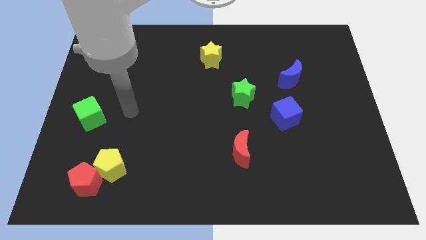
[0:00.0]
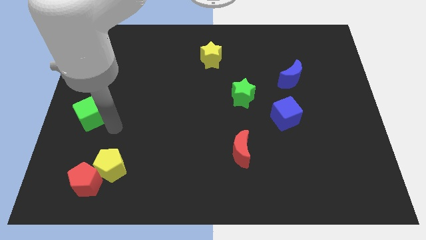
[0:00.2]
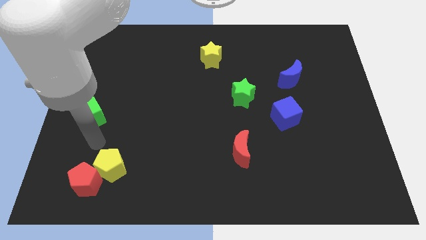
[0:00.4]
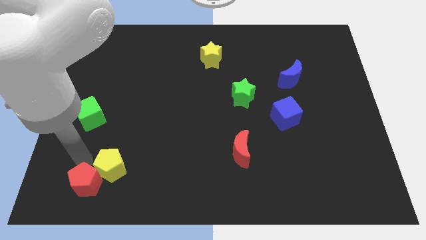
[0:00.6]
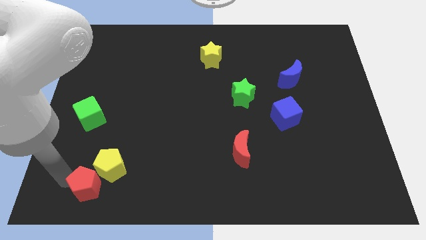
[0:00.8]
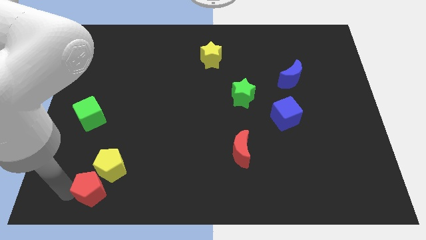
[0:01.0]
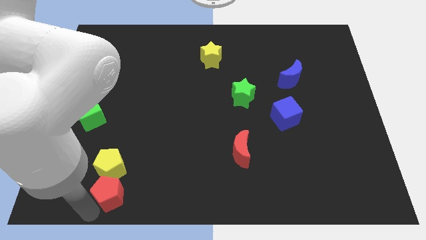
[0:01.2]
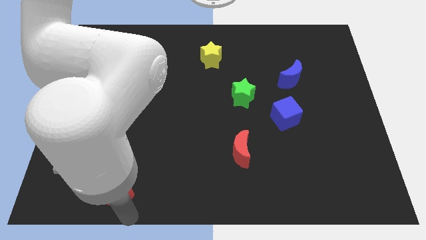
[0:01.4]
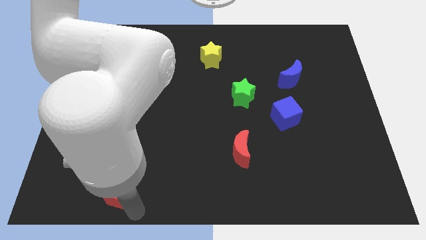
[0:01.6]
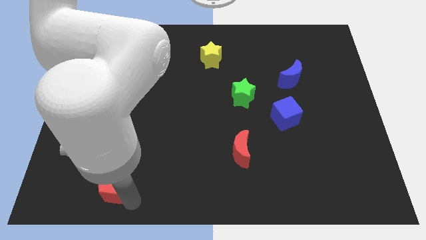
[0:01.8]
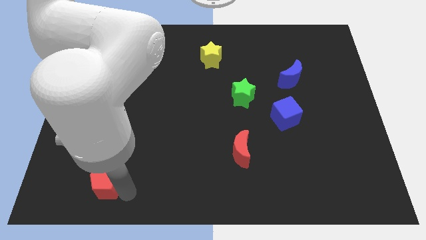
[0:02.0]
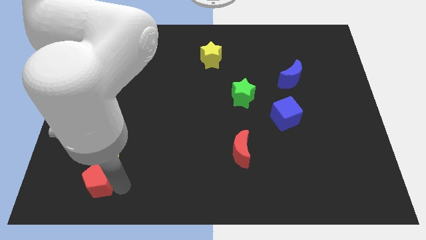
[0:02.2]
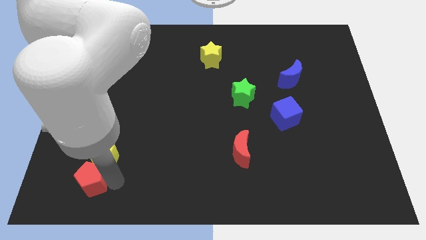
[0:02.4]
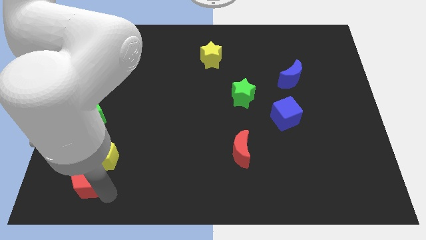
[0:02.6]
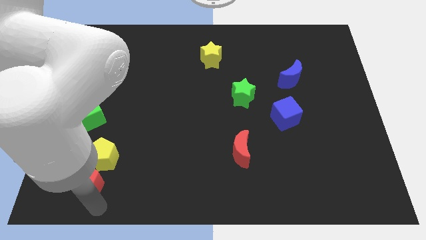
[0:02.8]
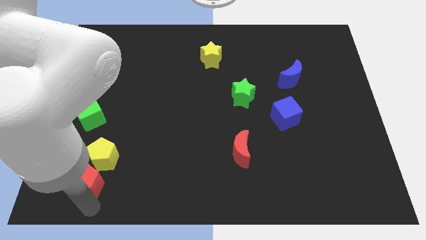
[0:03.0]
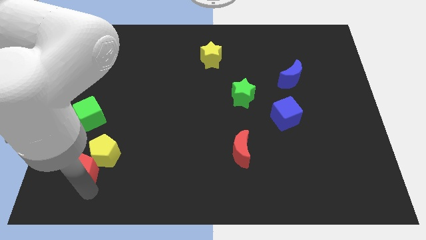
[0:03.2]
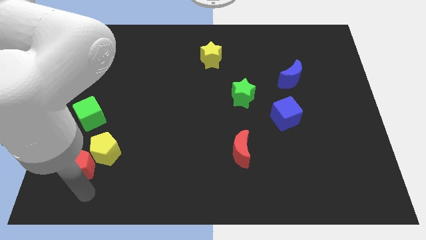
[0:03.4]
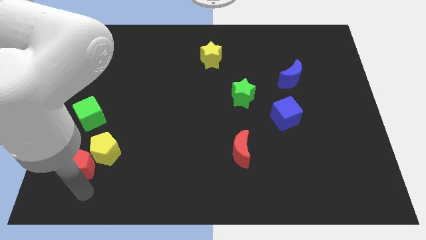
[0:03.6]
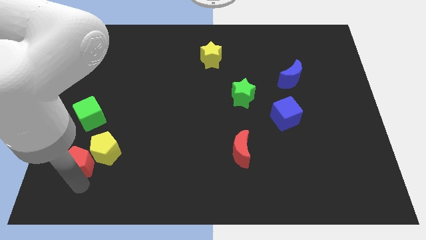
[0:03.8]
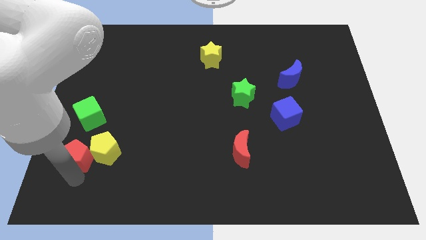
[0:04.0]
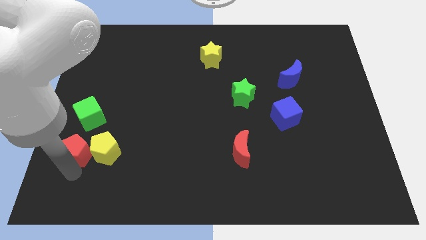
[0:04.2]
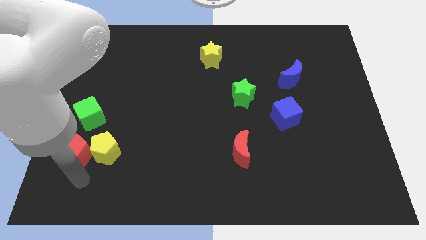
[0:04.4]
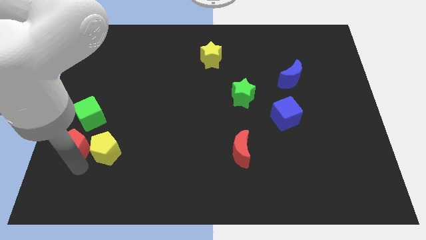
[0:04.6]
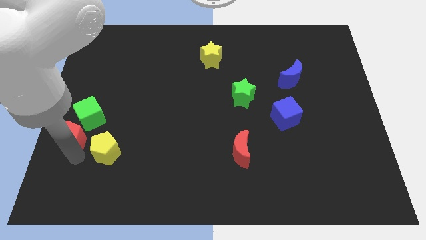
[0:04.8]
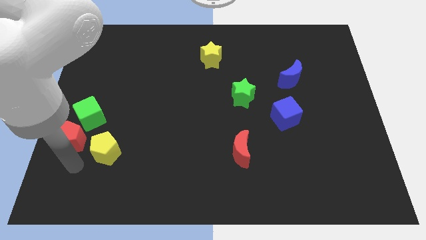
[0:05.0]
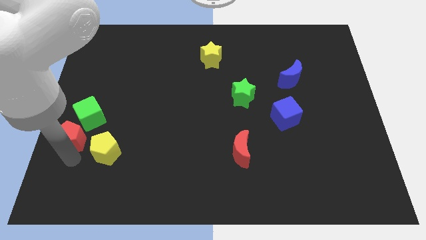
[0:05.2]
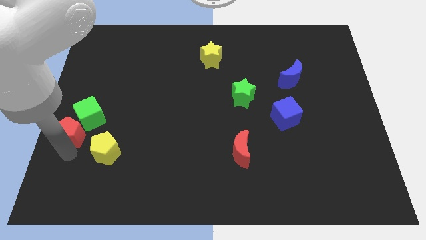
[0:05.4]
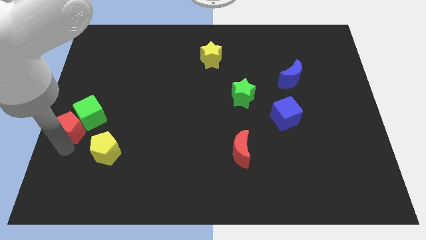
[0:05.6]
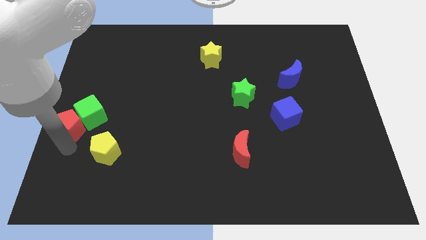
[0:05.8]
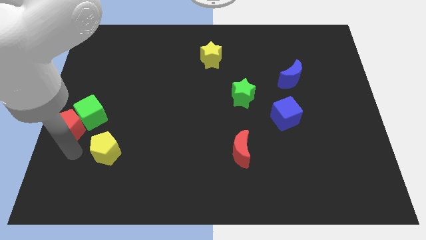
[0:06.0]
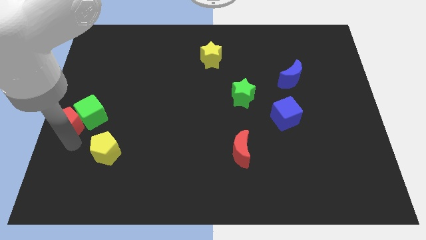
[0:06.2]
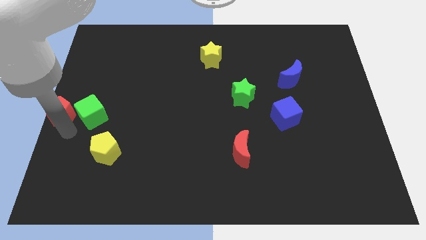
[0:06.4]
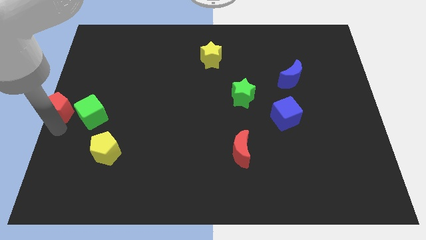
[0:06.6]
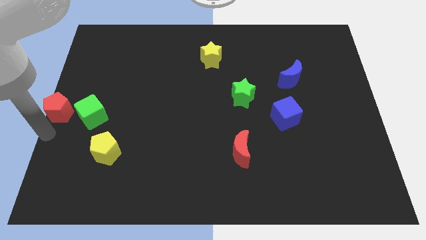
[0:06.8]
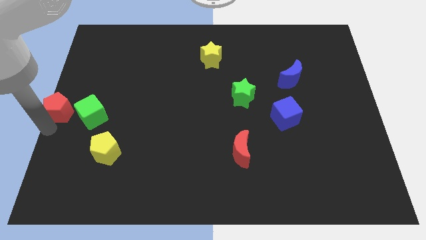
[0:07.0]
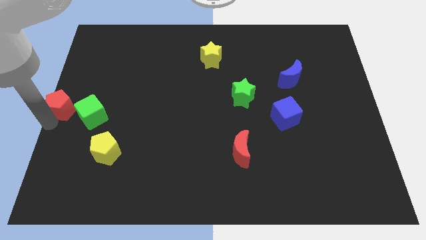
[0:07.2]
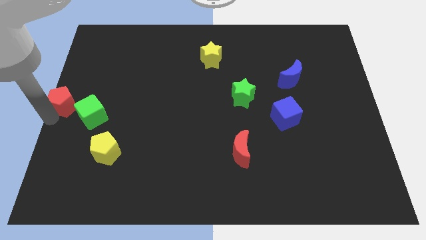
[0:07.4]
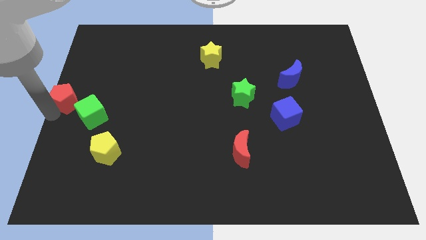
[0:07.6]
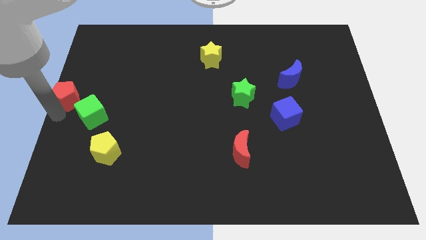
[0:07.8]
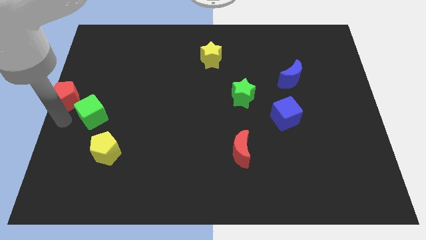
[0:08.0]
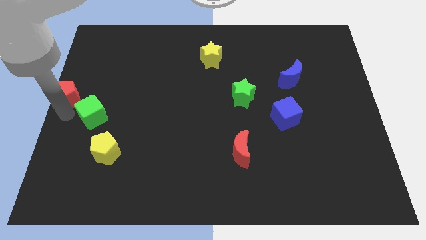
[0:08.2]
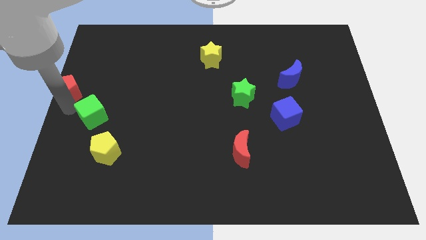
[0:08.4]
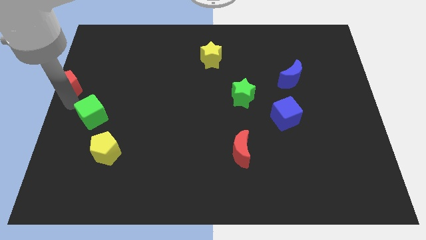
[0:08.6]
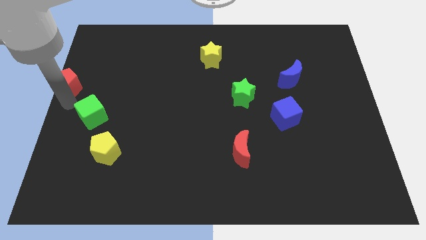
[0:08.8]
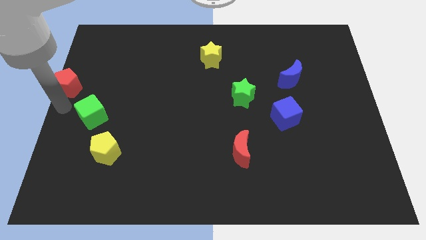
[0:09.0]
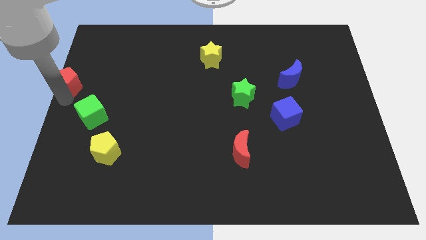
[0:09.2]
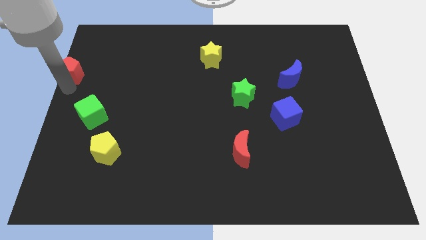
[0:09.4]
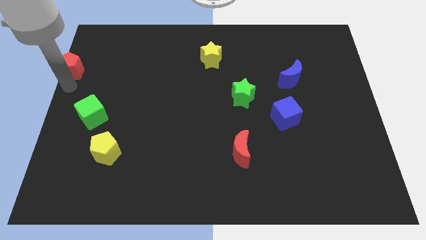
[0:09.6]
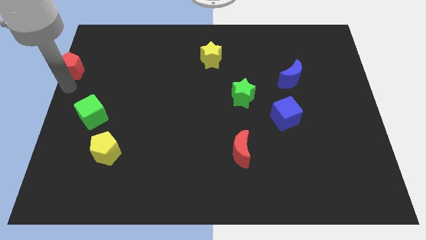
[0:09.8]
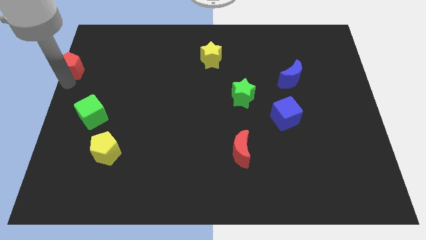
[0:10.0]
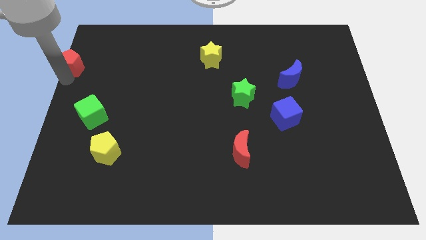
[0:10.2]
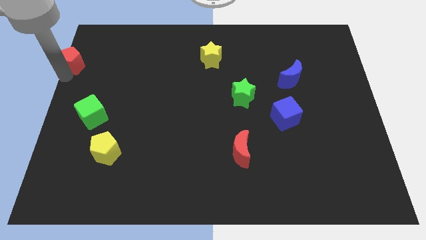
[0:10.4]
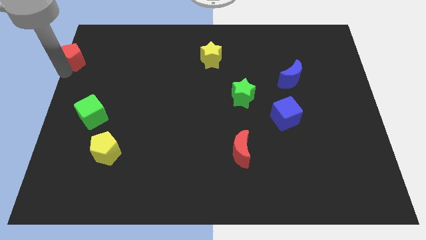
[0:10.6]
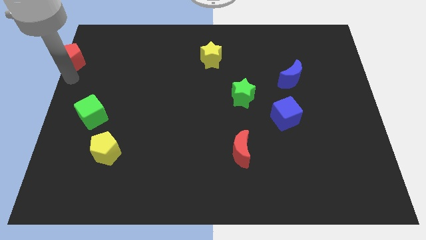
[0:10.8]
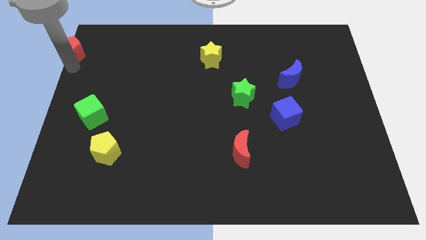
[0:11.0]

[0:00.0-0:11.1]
push the red pentagon to the top left of the board
